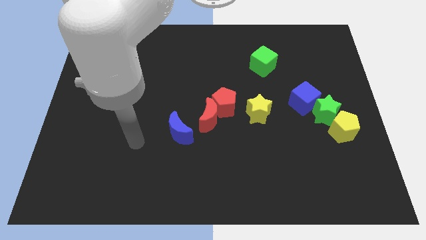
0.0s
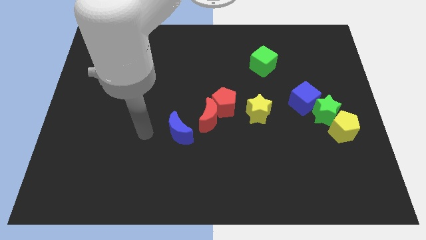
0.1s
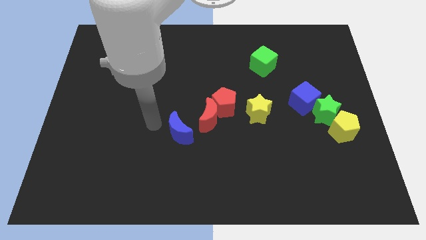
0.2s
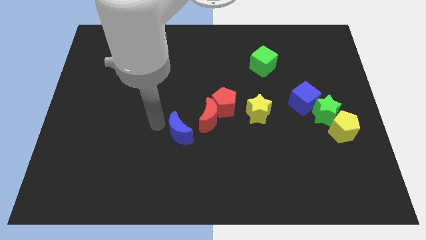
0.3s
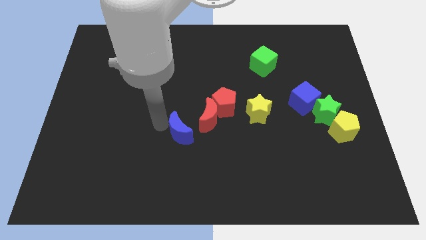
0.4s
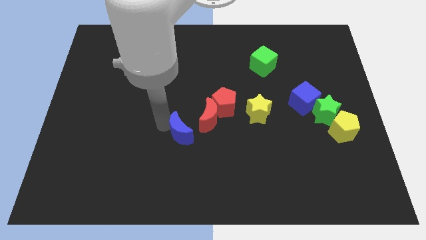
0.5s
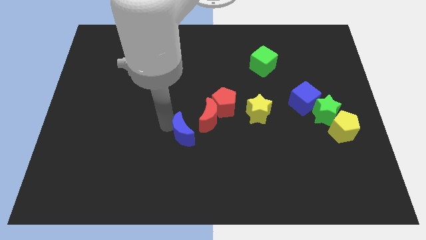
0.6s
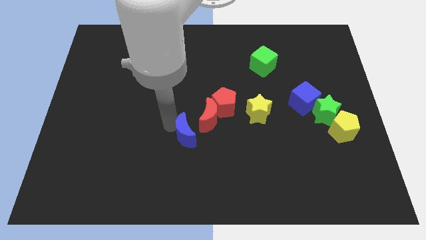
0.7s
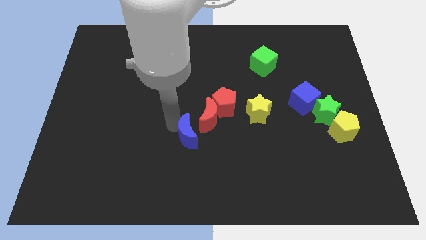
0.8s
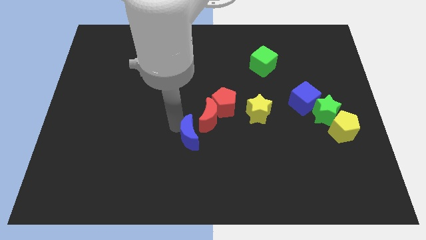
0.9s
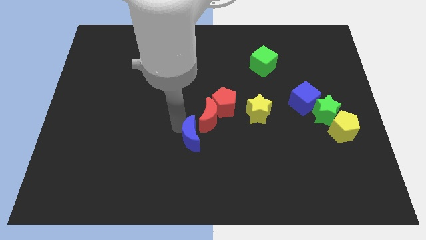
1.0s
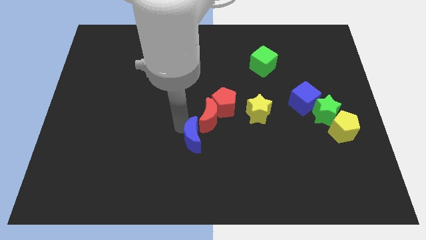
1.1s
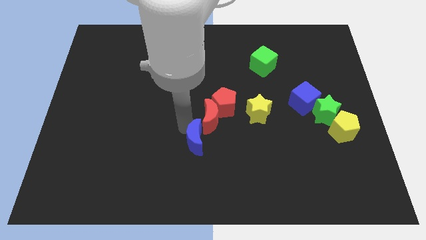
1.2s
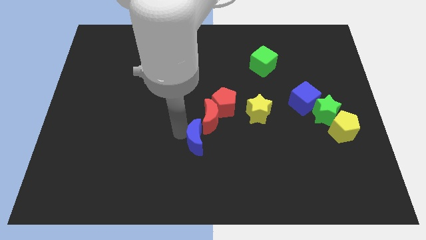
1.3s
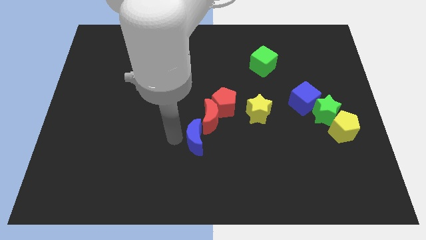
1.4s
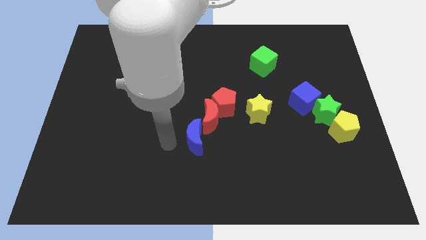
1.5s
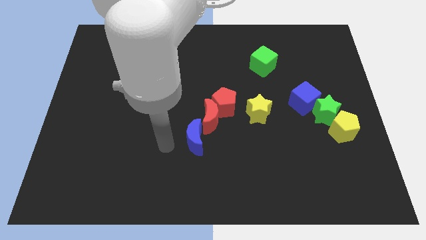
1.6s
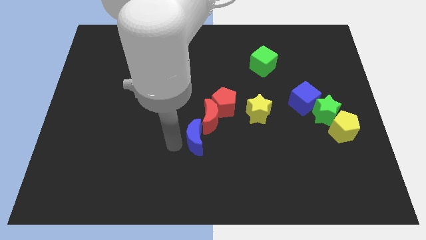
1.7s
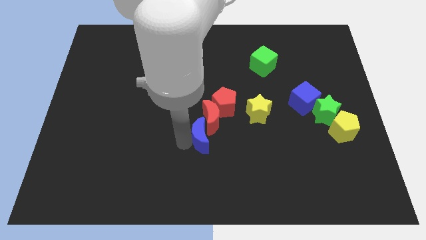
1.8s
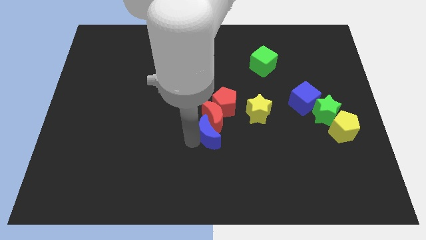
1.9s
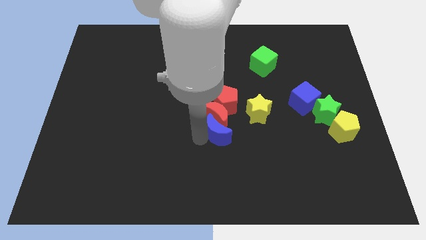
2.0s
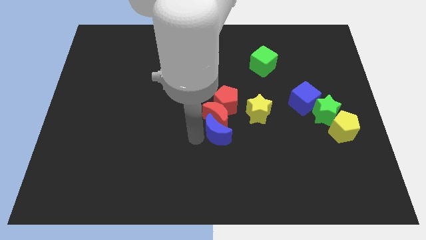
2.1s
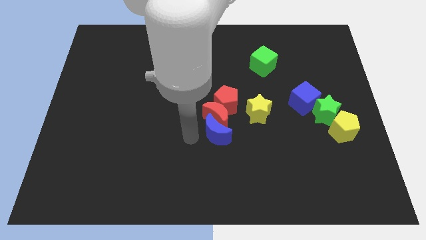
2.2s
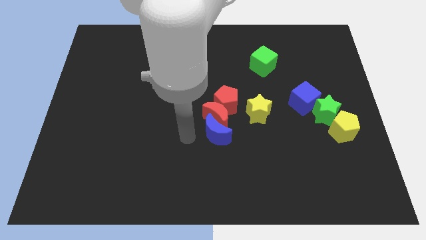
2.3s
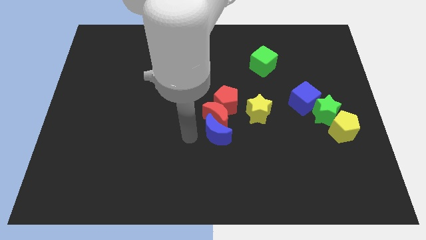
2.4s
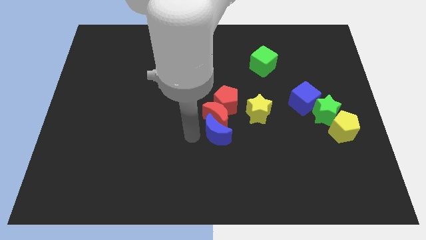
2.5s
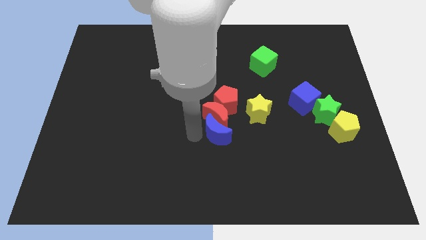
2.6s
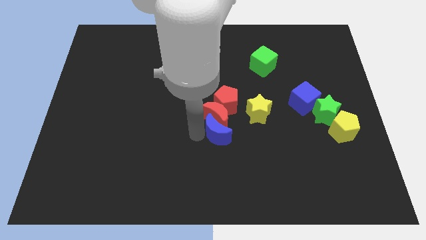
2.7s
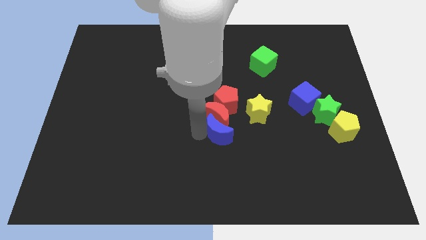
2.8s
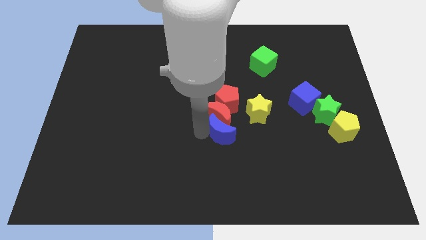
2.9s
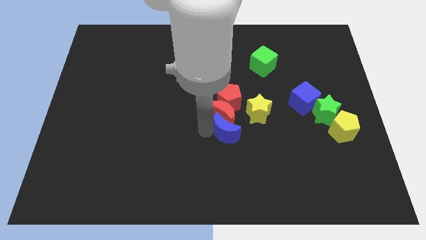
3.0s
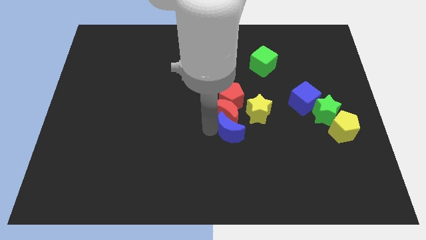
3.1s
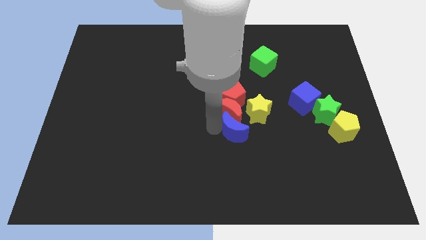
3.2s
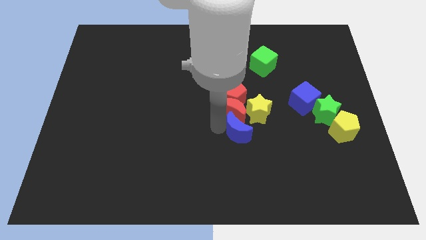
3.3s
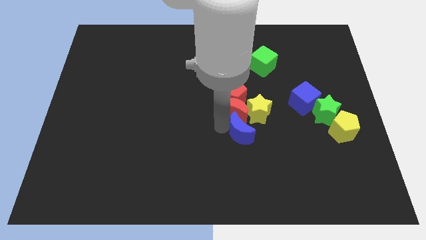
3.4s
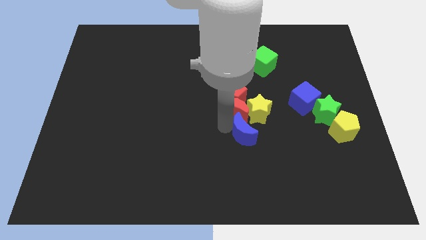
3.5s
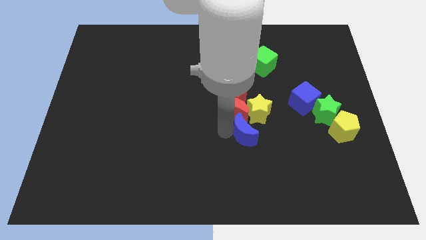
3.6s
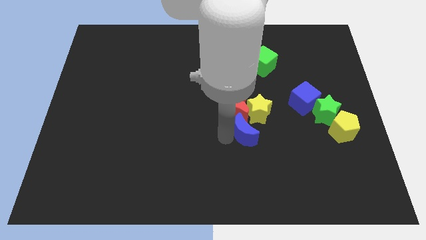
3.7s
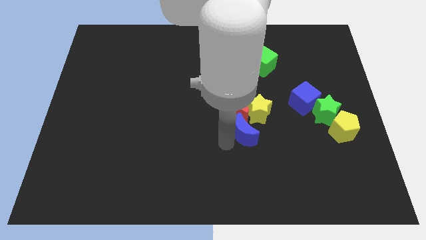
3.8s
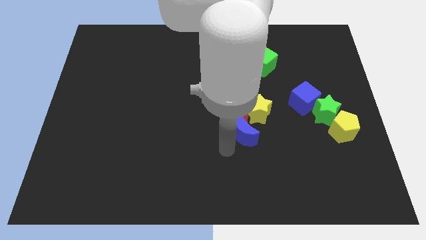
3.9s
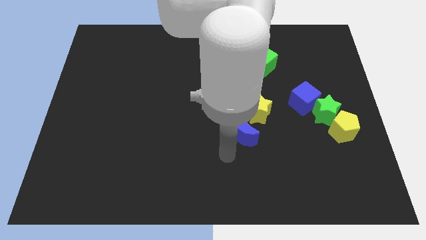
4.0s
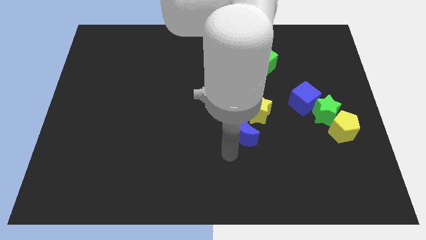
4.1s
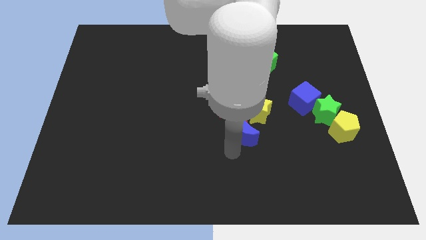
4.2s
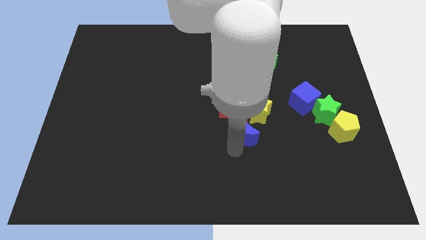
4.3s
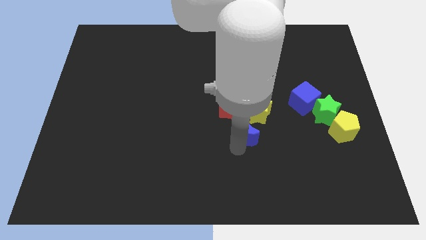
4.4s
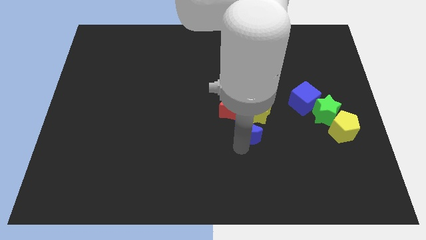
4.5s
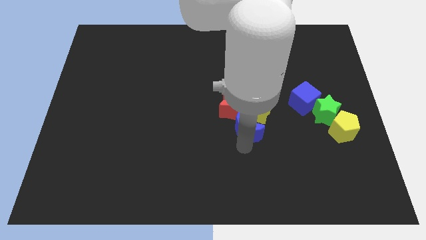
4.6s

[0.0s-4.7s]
put the blue moon close to the yellow star

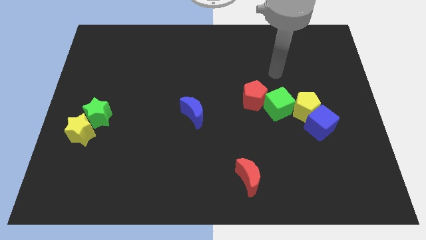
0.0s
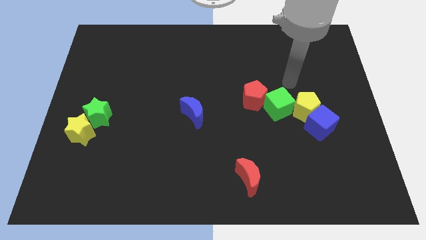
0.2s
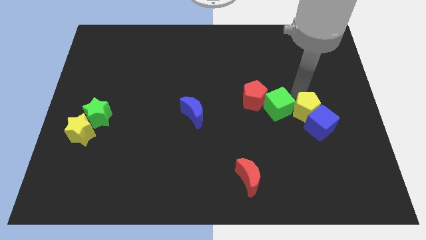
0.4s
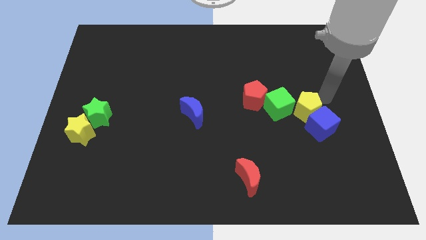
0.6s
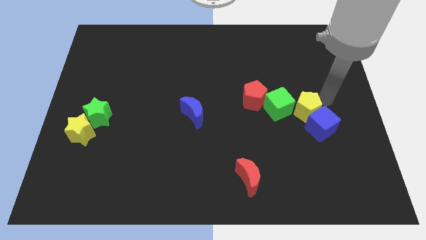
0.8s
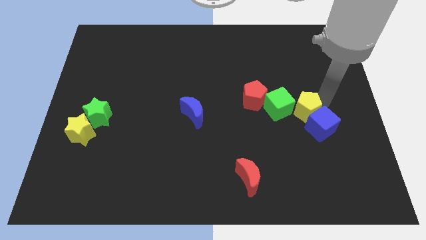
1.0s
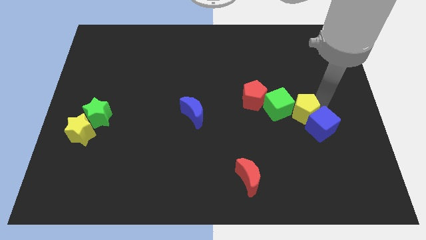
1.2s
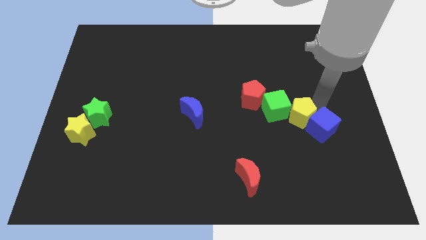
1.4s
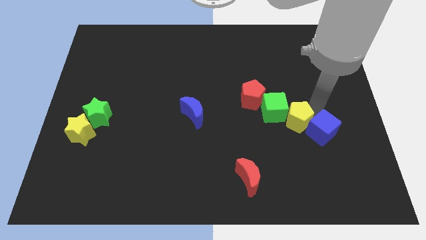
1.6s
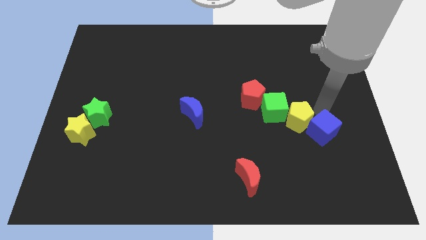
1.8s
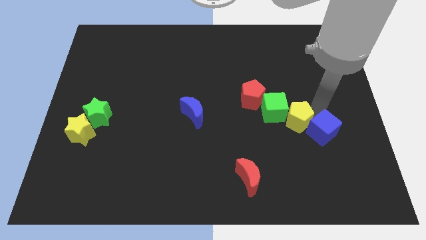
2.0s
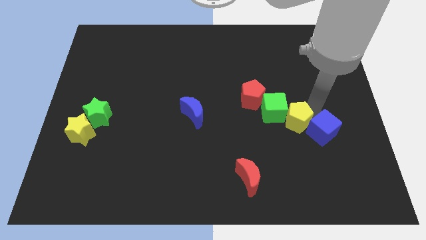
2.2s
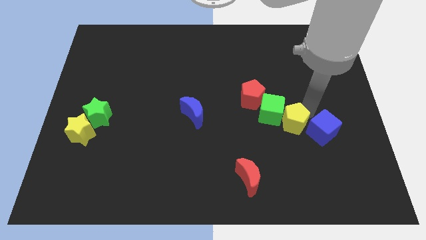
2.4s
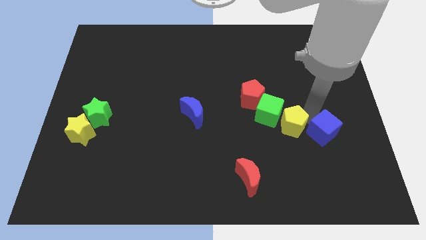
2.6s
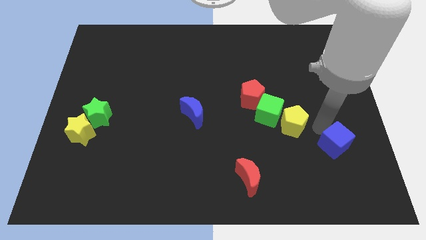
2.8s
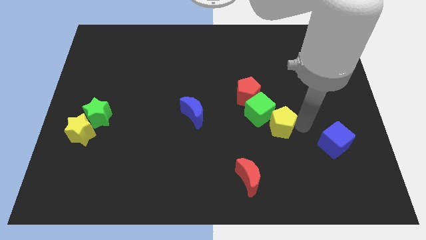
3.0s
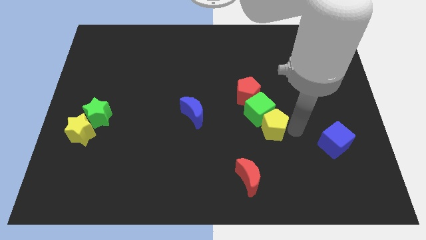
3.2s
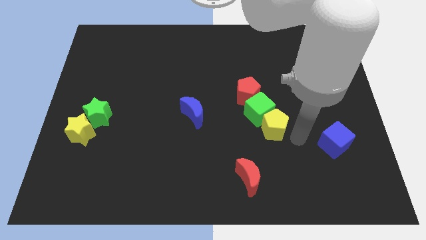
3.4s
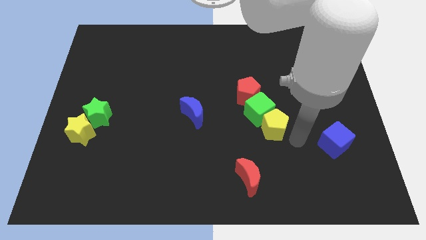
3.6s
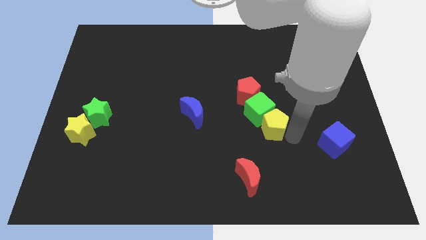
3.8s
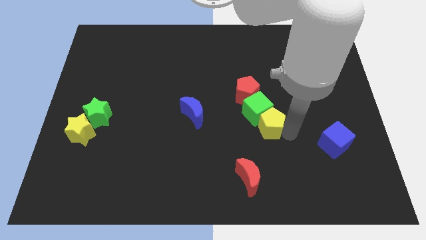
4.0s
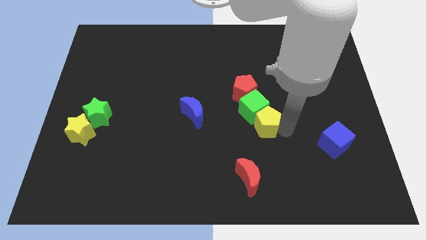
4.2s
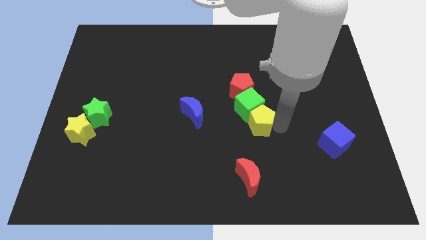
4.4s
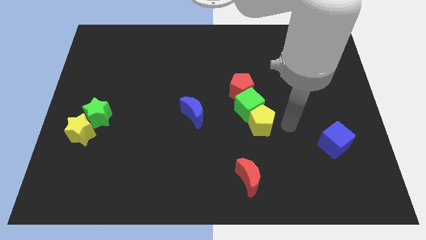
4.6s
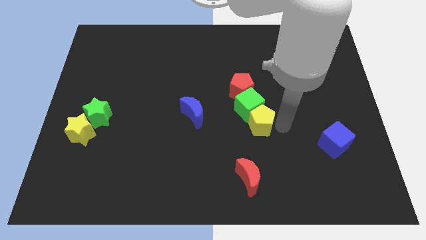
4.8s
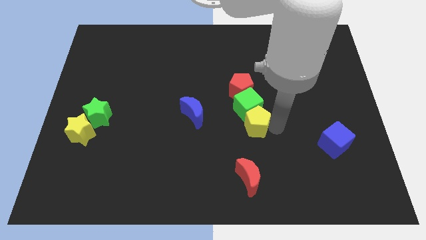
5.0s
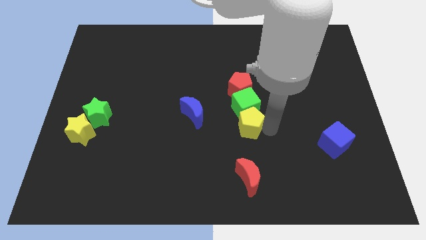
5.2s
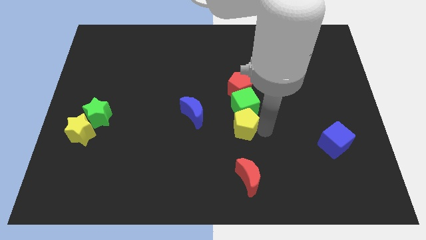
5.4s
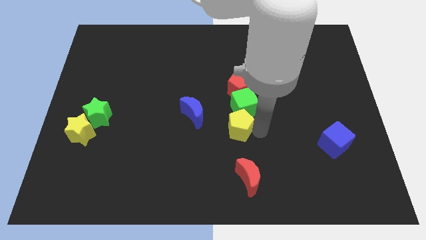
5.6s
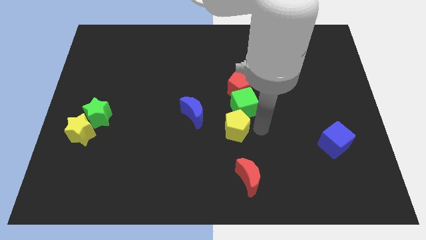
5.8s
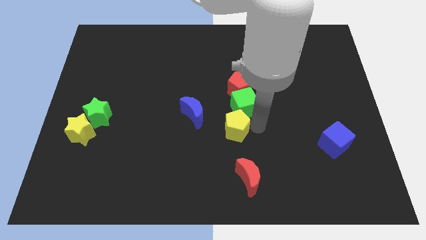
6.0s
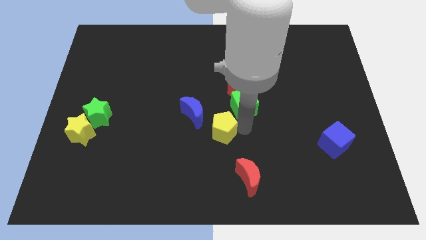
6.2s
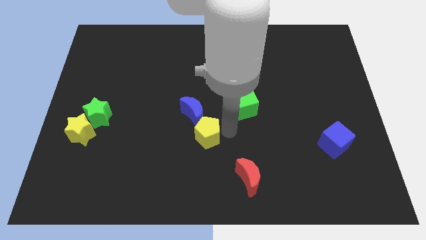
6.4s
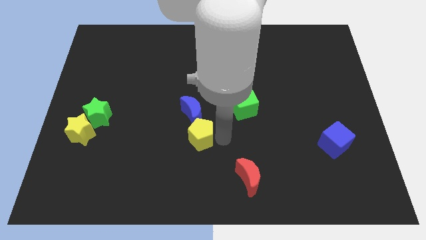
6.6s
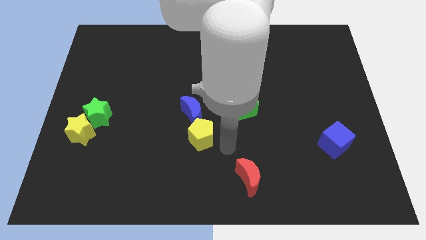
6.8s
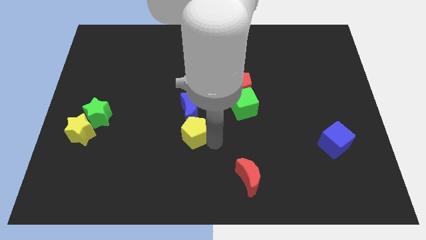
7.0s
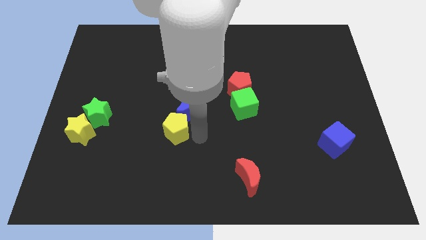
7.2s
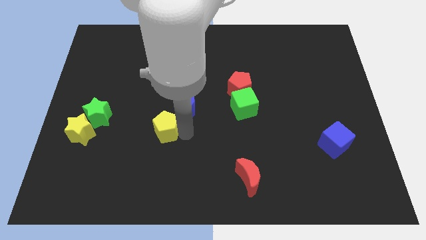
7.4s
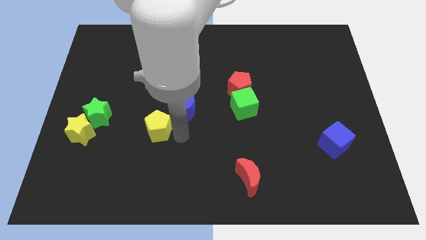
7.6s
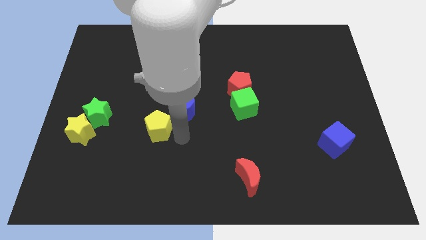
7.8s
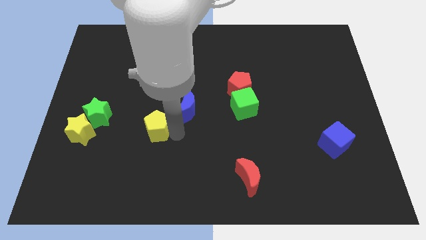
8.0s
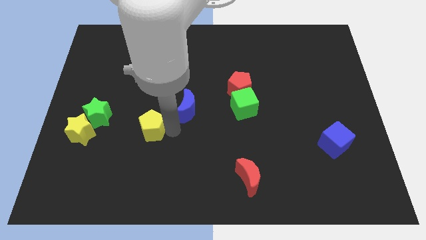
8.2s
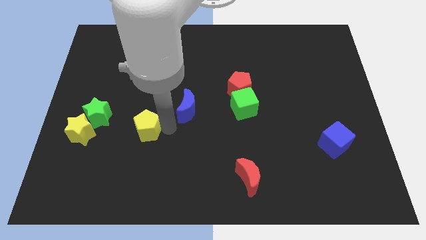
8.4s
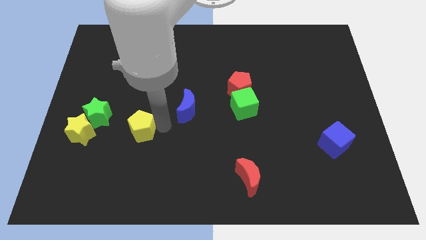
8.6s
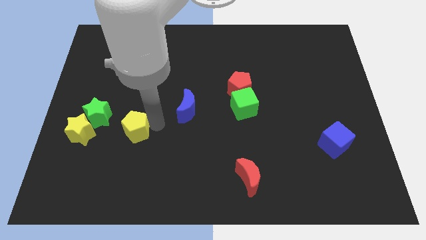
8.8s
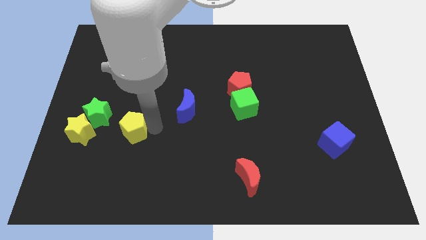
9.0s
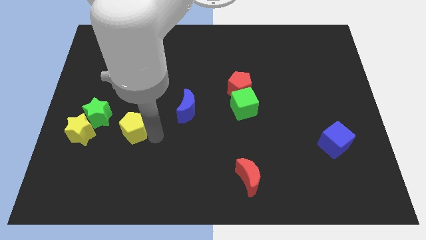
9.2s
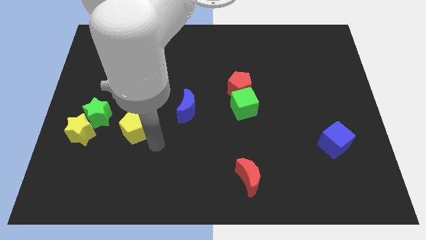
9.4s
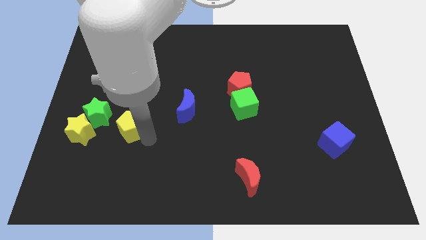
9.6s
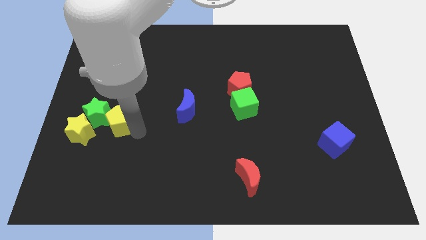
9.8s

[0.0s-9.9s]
push the yellow pentagon next to the green star
